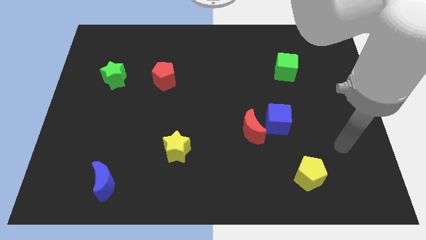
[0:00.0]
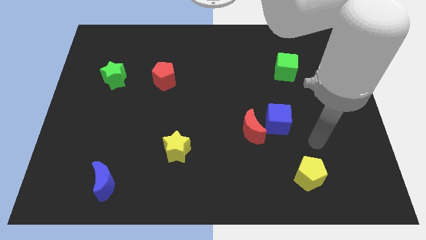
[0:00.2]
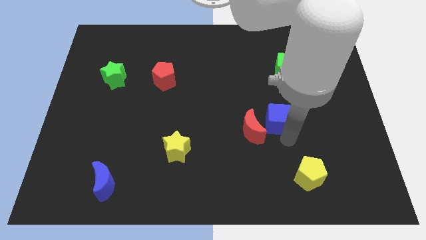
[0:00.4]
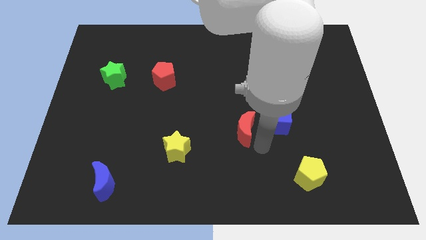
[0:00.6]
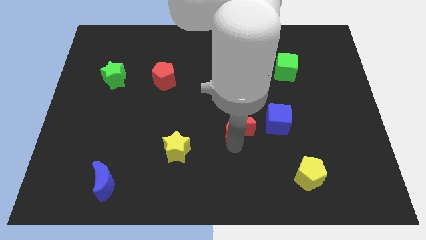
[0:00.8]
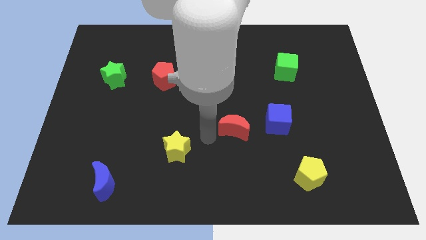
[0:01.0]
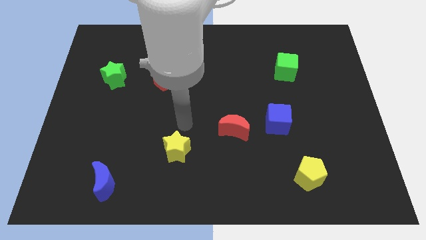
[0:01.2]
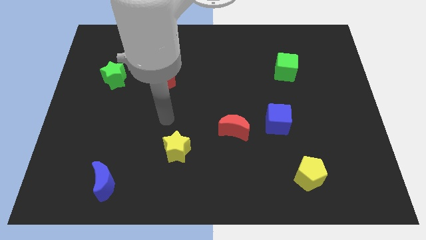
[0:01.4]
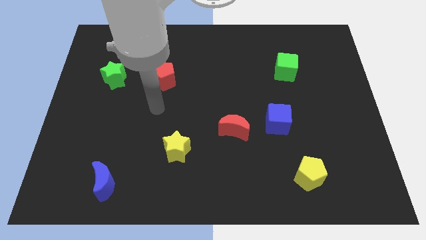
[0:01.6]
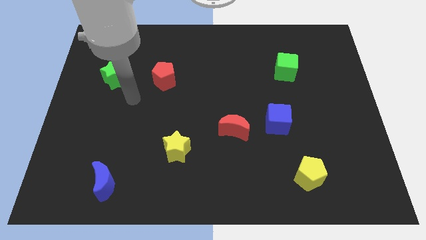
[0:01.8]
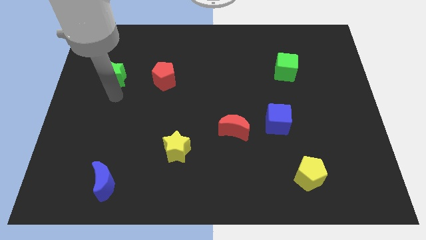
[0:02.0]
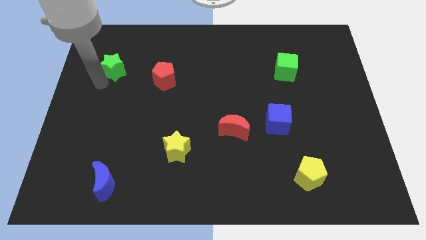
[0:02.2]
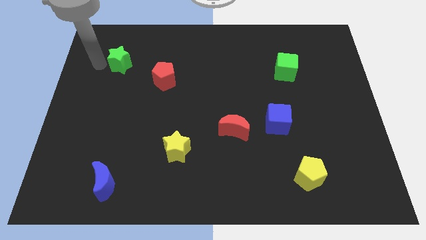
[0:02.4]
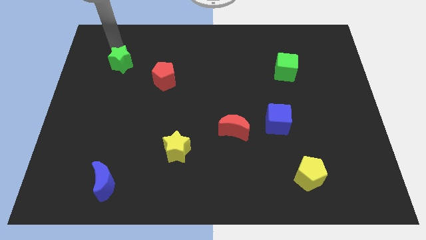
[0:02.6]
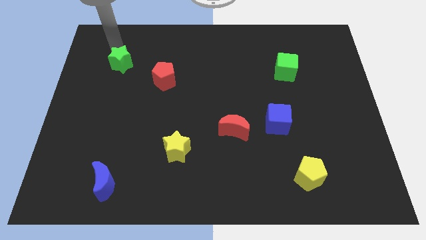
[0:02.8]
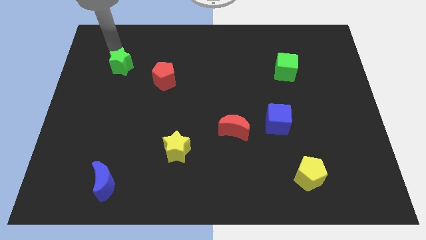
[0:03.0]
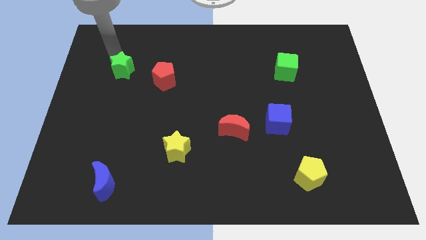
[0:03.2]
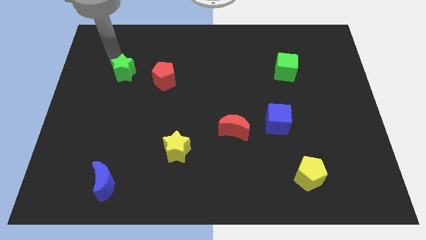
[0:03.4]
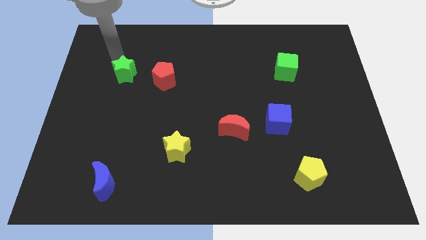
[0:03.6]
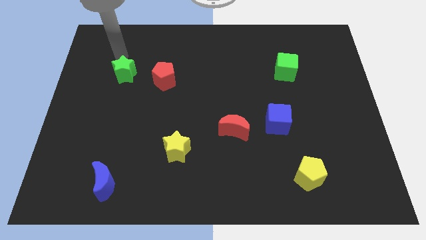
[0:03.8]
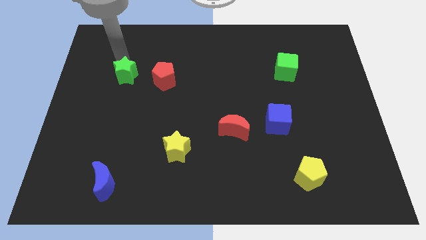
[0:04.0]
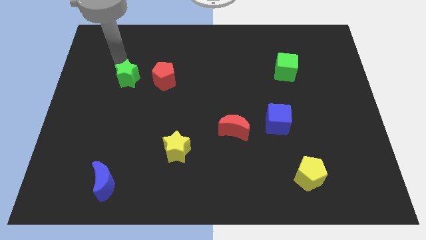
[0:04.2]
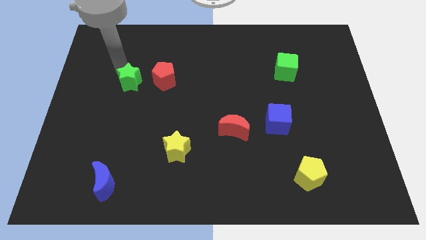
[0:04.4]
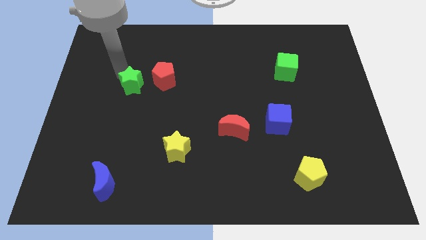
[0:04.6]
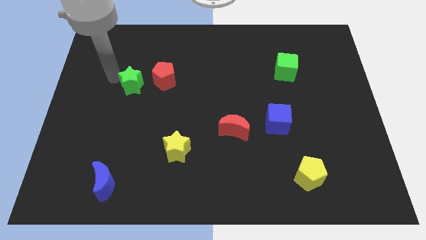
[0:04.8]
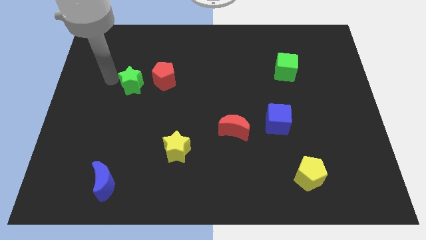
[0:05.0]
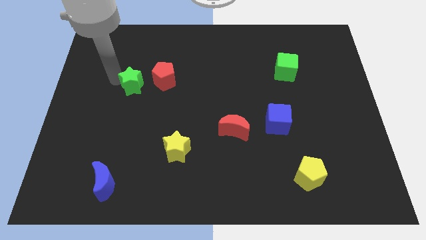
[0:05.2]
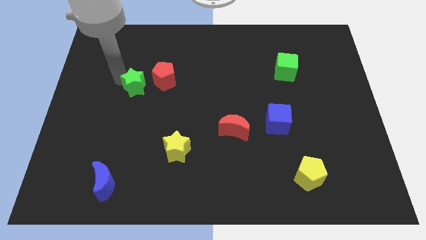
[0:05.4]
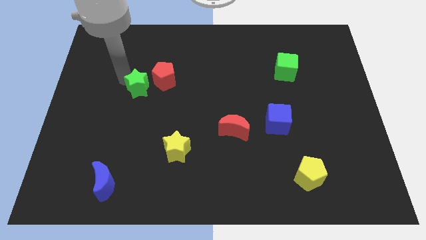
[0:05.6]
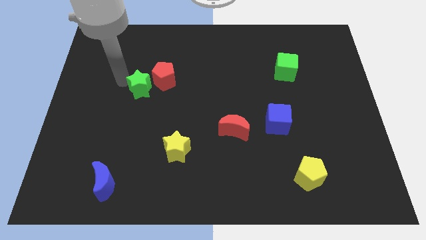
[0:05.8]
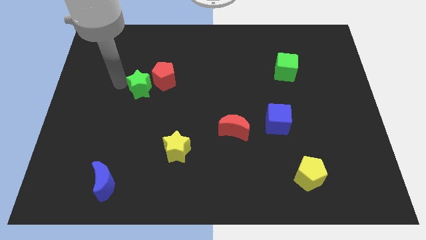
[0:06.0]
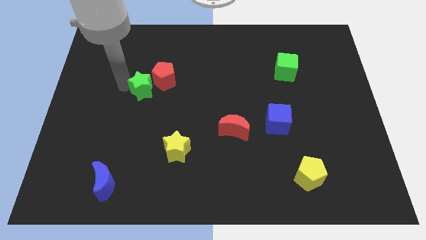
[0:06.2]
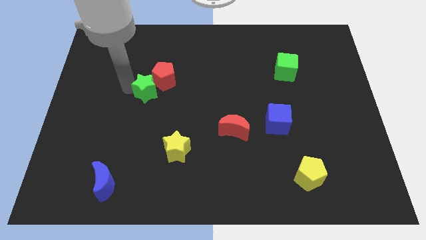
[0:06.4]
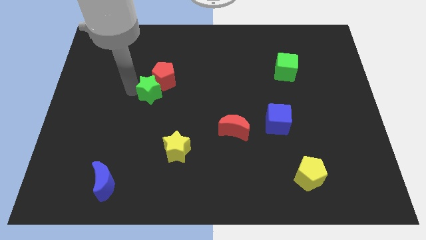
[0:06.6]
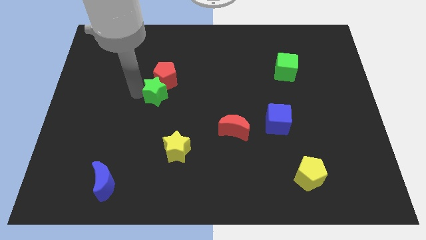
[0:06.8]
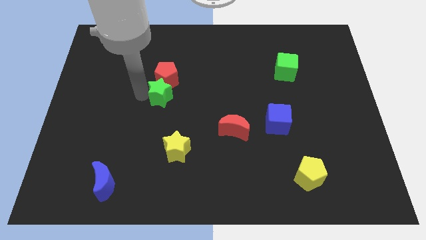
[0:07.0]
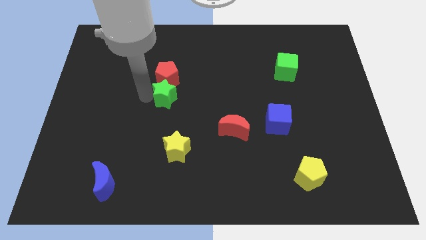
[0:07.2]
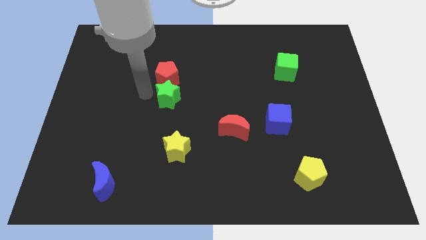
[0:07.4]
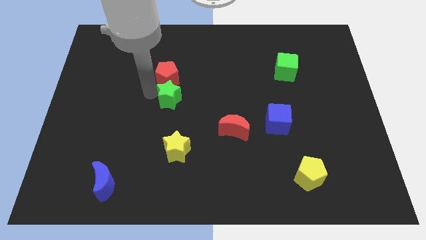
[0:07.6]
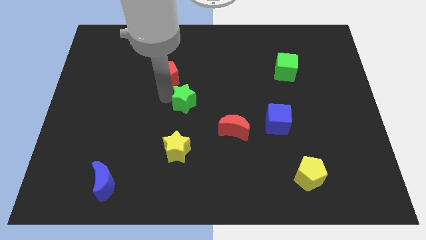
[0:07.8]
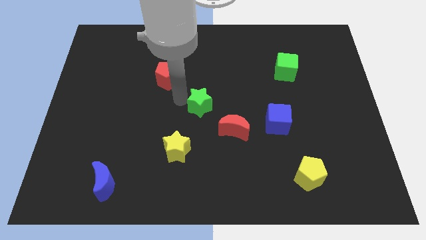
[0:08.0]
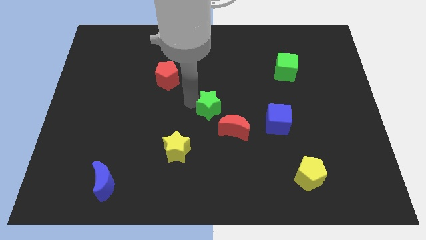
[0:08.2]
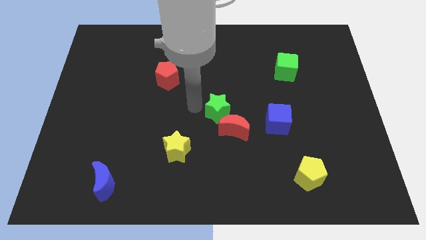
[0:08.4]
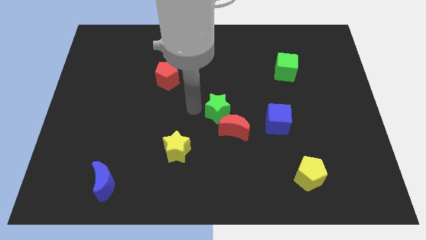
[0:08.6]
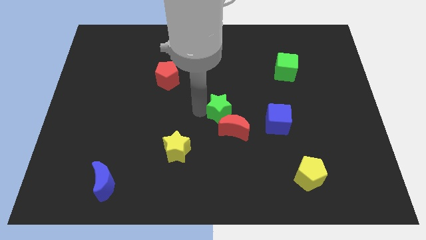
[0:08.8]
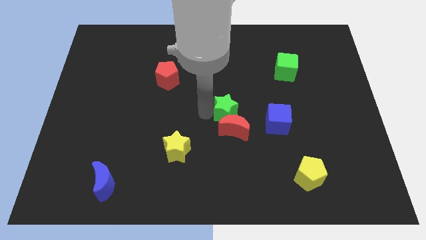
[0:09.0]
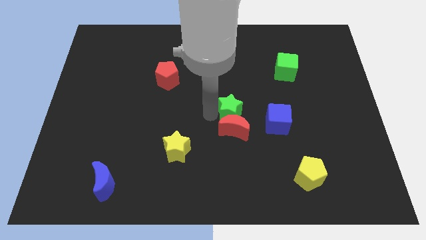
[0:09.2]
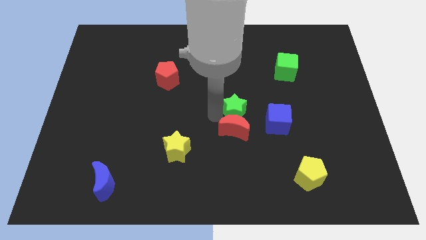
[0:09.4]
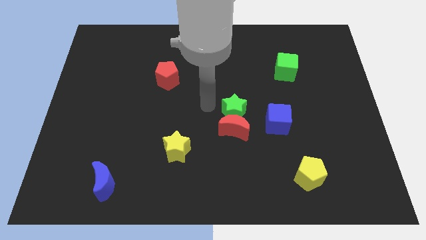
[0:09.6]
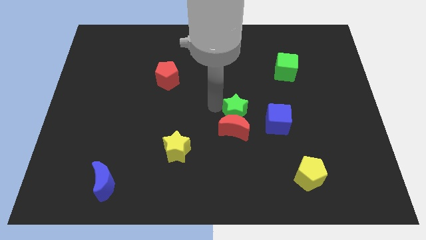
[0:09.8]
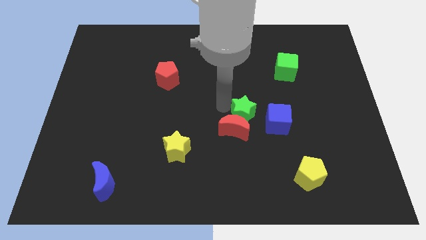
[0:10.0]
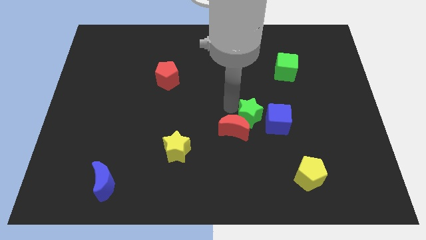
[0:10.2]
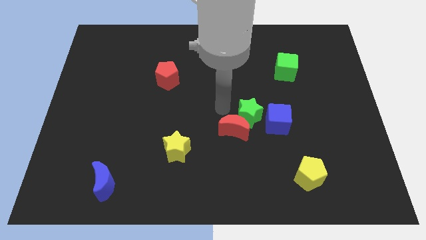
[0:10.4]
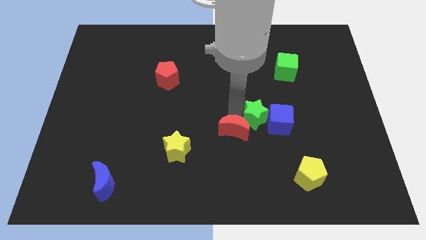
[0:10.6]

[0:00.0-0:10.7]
push the green star next to the blue cube

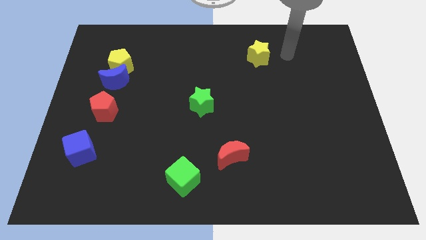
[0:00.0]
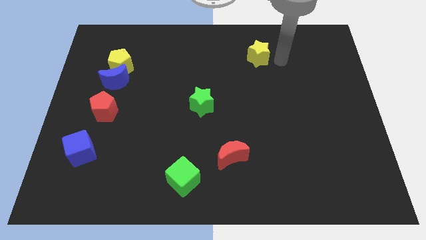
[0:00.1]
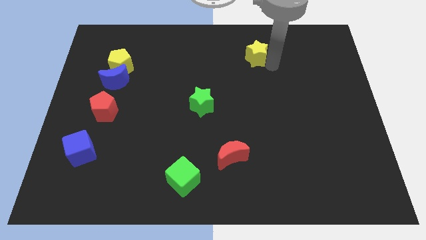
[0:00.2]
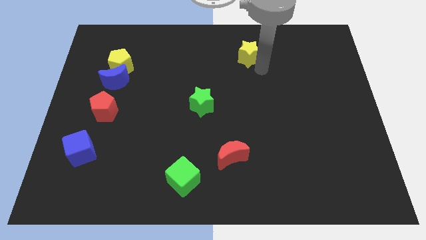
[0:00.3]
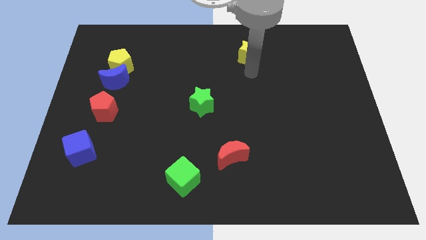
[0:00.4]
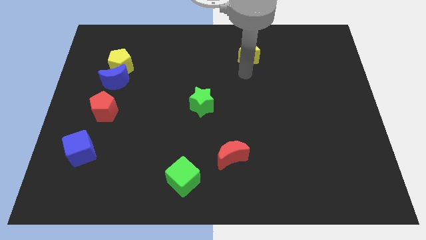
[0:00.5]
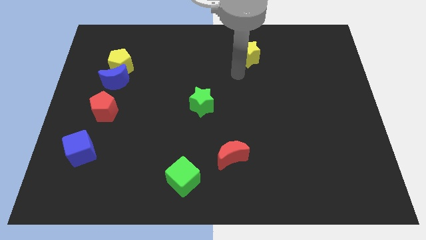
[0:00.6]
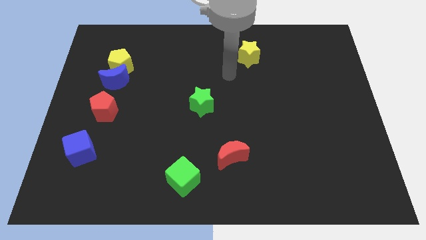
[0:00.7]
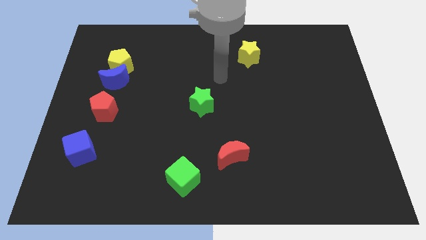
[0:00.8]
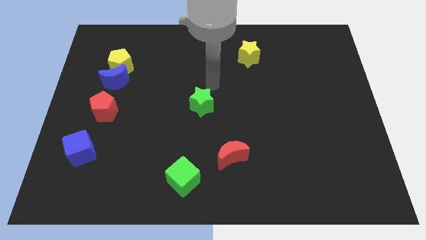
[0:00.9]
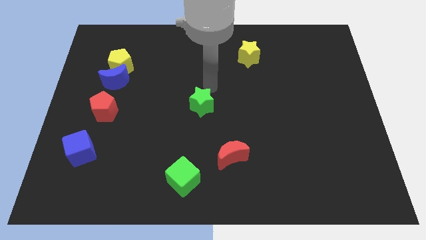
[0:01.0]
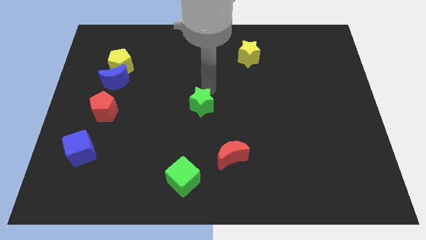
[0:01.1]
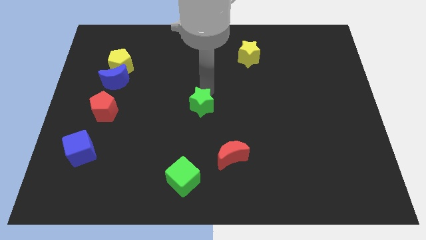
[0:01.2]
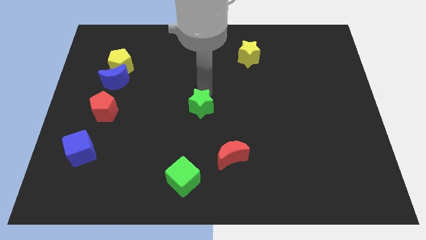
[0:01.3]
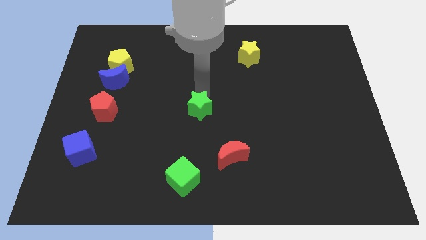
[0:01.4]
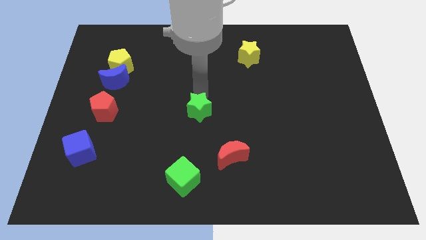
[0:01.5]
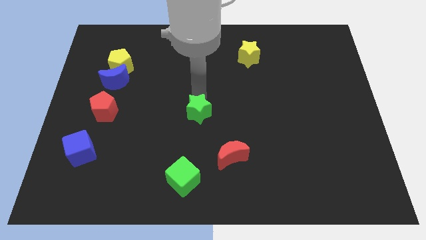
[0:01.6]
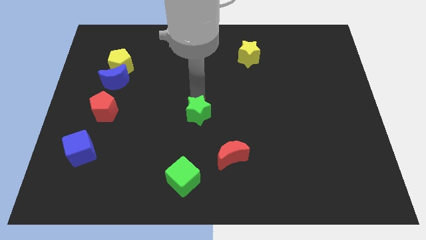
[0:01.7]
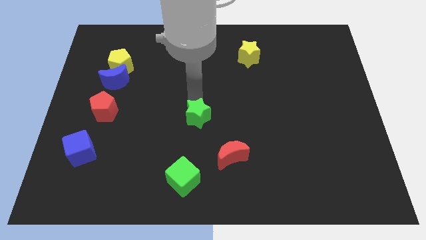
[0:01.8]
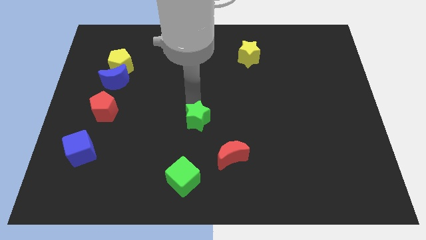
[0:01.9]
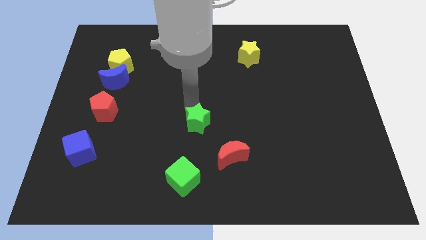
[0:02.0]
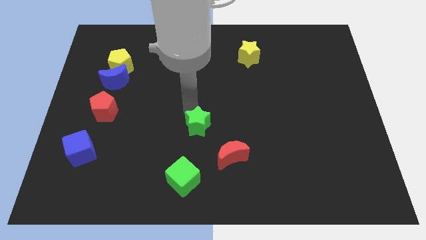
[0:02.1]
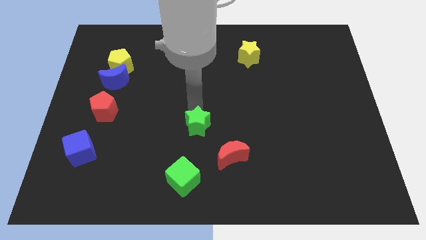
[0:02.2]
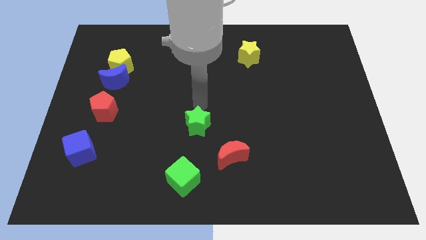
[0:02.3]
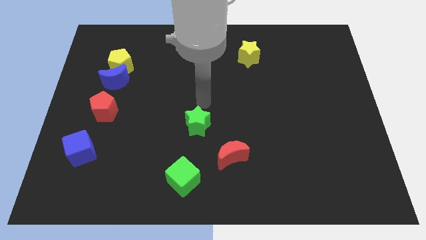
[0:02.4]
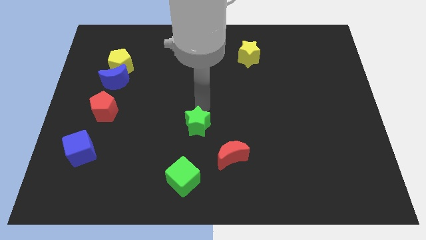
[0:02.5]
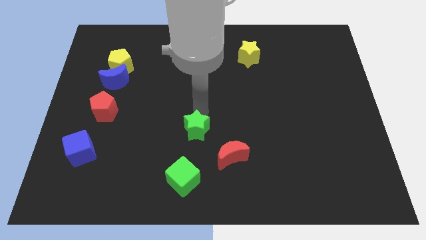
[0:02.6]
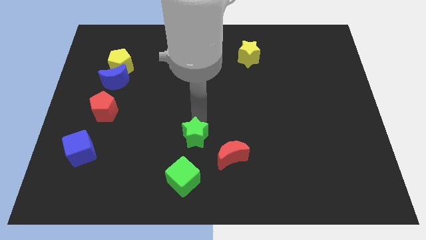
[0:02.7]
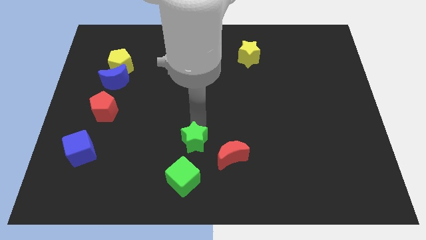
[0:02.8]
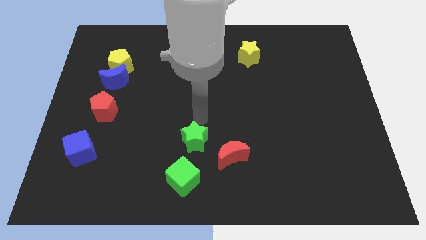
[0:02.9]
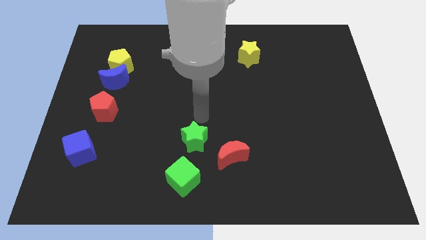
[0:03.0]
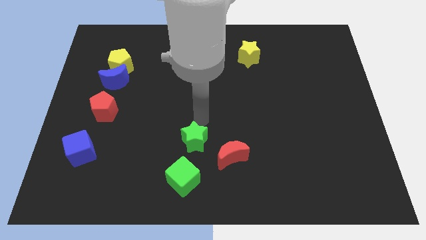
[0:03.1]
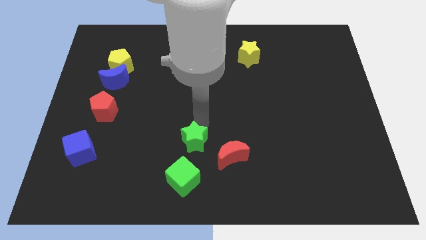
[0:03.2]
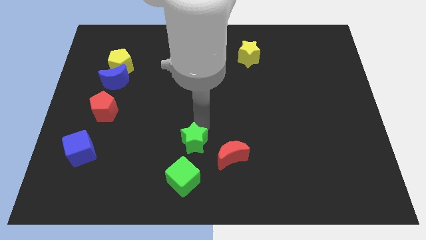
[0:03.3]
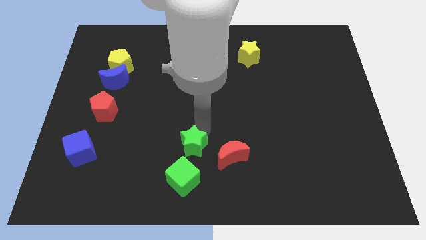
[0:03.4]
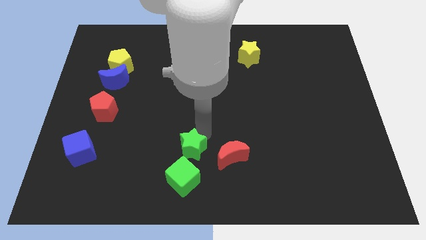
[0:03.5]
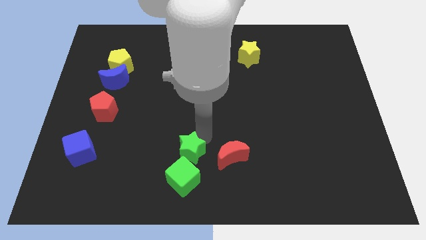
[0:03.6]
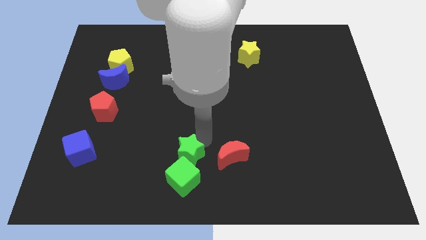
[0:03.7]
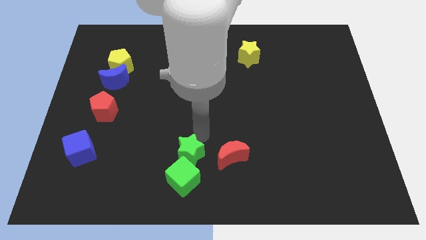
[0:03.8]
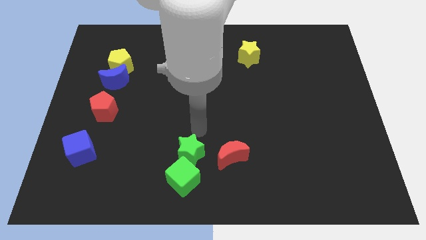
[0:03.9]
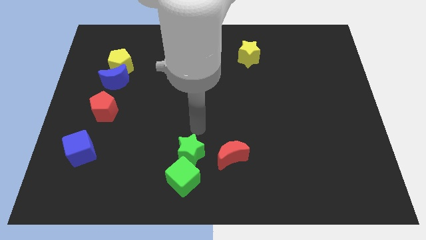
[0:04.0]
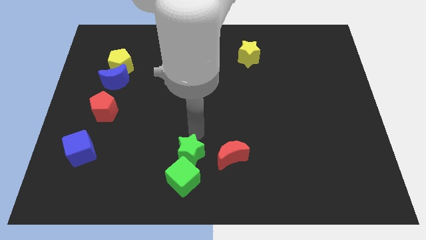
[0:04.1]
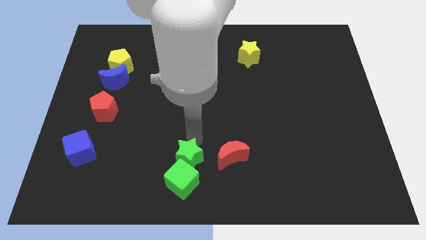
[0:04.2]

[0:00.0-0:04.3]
put the green star next to the green cube
